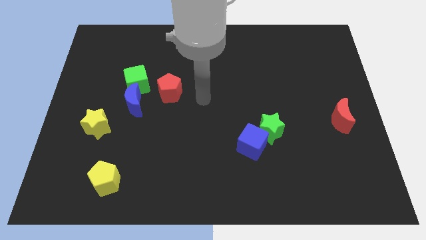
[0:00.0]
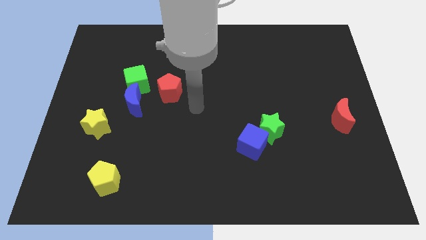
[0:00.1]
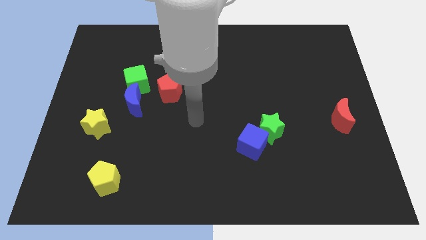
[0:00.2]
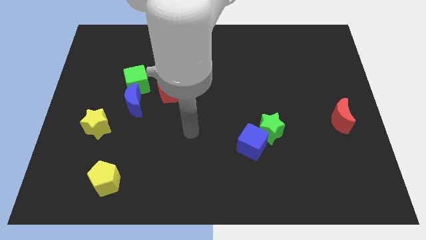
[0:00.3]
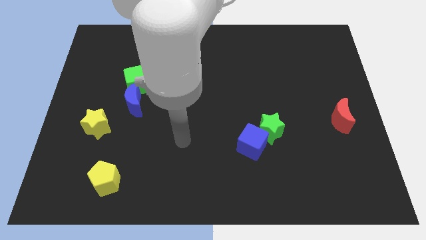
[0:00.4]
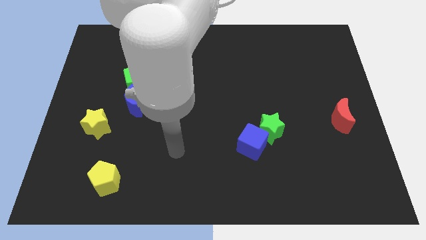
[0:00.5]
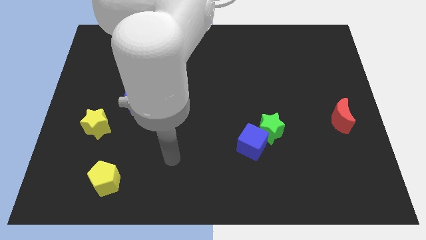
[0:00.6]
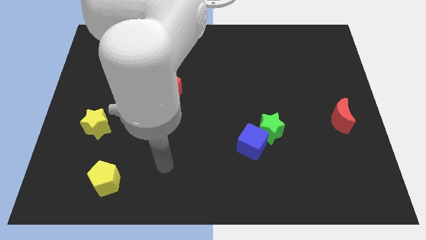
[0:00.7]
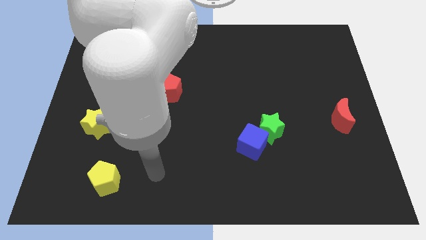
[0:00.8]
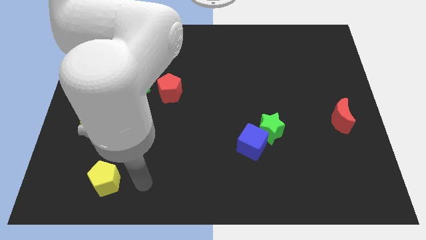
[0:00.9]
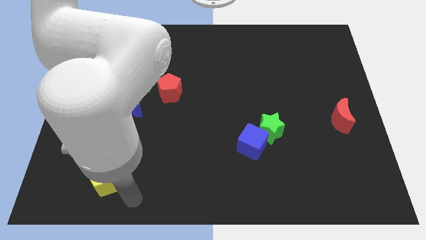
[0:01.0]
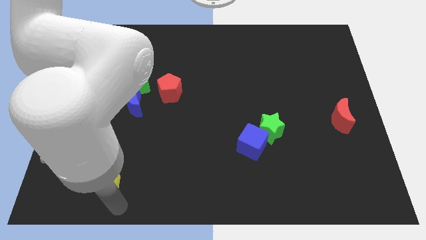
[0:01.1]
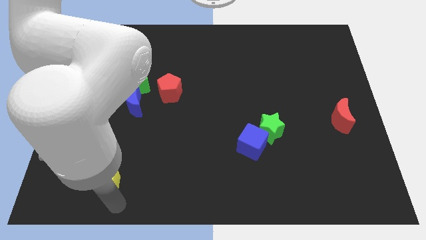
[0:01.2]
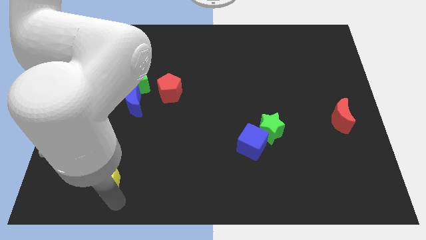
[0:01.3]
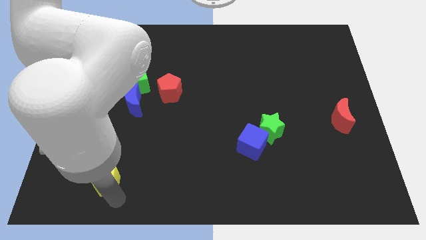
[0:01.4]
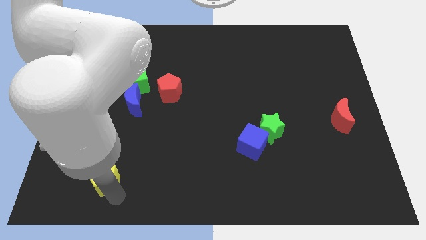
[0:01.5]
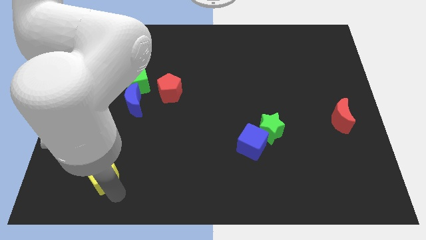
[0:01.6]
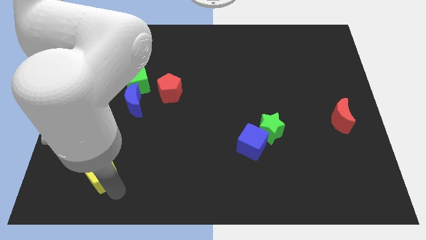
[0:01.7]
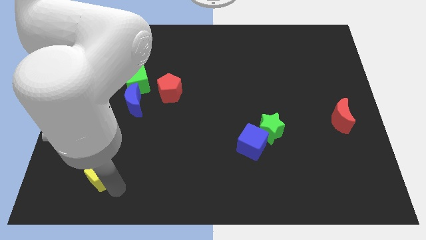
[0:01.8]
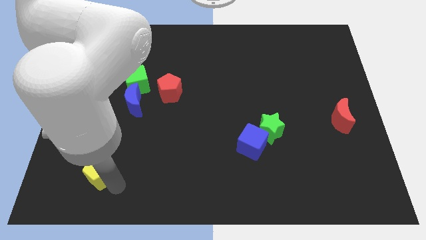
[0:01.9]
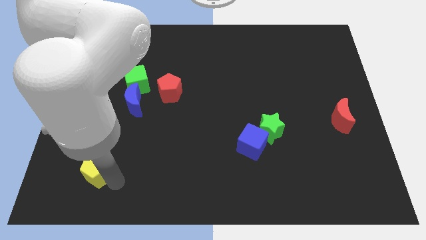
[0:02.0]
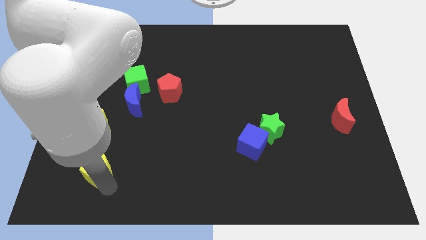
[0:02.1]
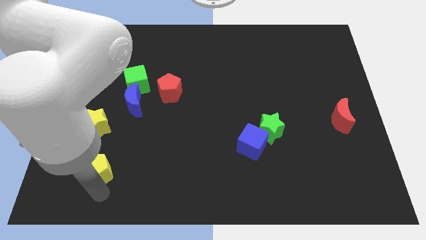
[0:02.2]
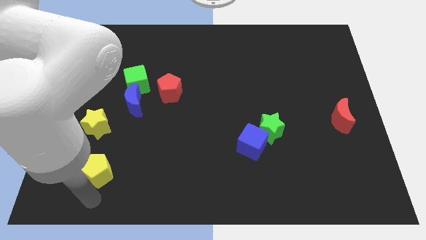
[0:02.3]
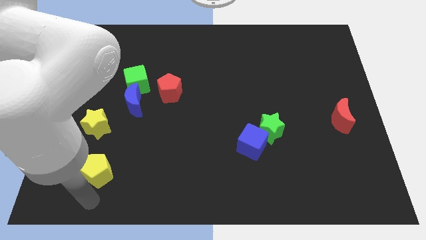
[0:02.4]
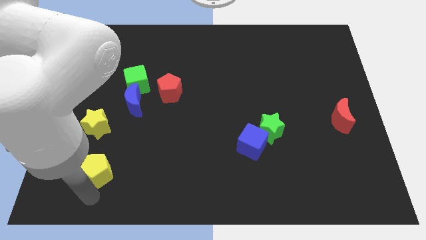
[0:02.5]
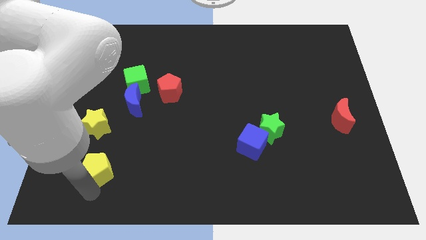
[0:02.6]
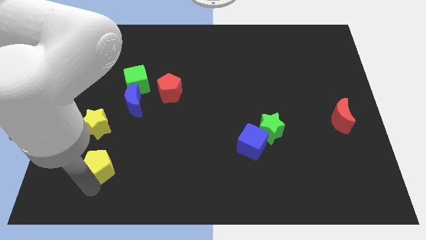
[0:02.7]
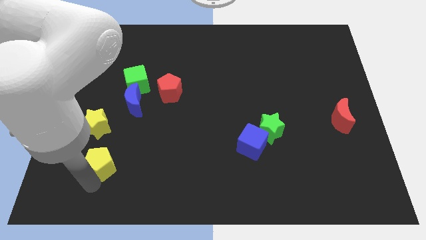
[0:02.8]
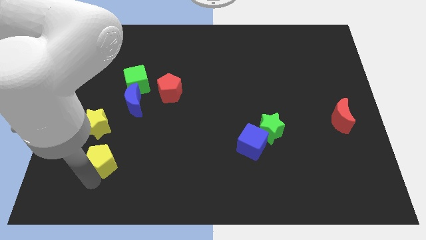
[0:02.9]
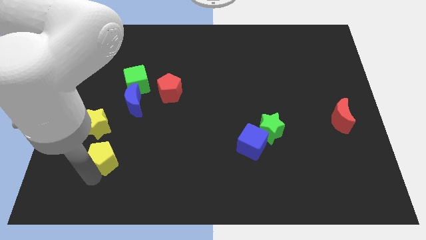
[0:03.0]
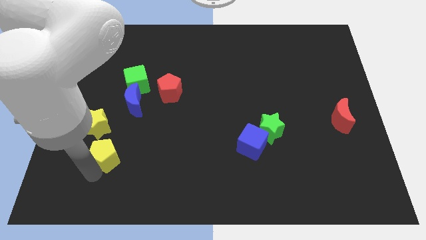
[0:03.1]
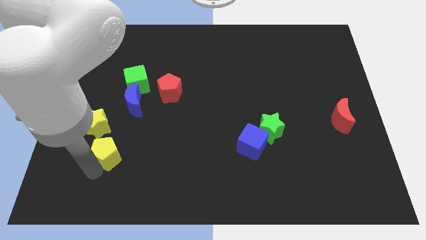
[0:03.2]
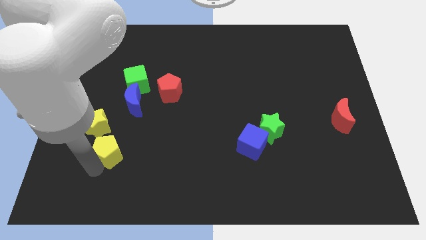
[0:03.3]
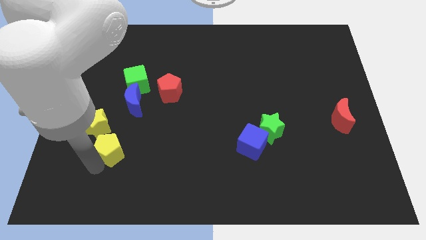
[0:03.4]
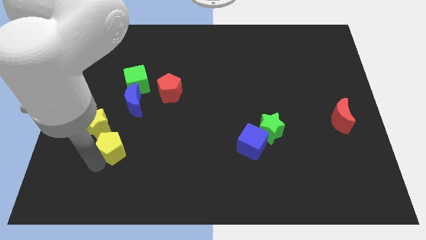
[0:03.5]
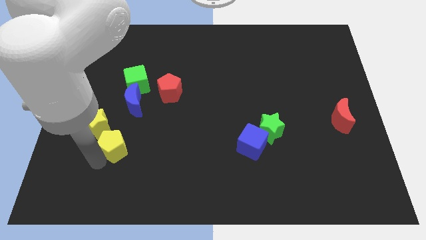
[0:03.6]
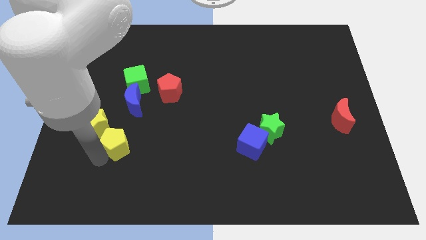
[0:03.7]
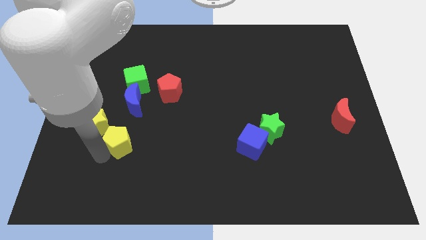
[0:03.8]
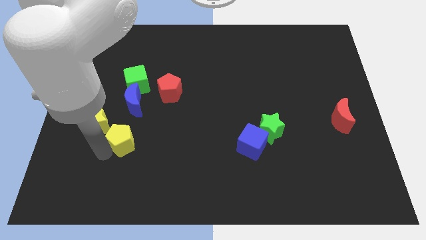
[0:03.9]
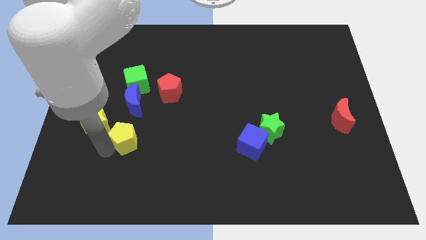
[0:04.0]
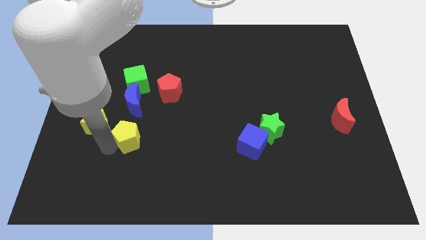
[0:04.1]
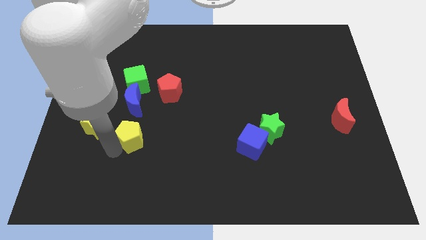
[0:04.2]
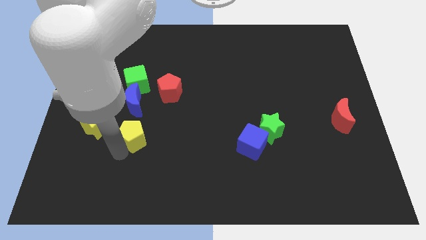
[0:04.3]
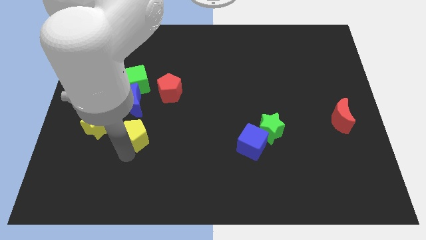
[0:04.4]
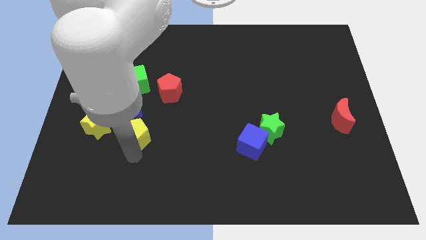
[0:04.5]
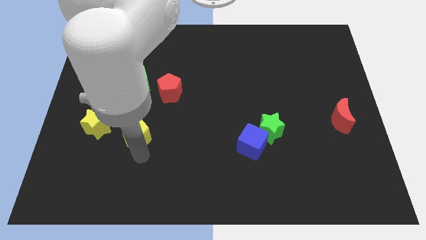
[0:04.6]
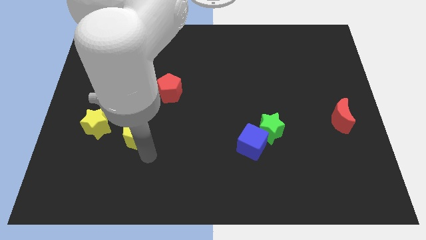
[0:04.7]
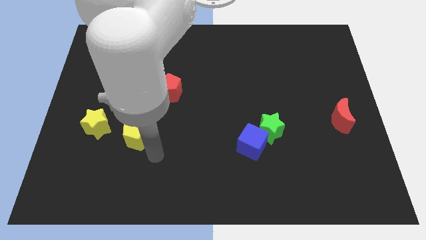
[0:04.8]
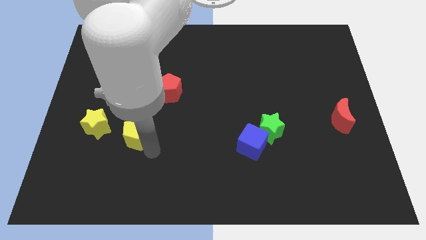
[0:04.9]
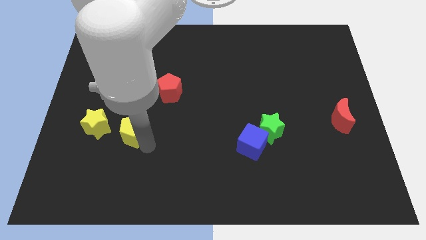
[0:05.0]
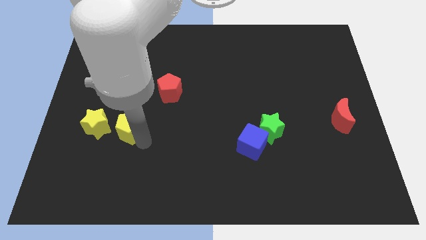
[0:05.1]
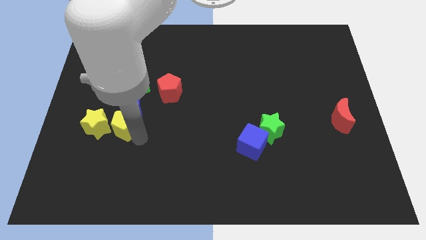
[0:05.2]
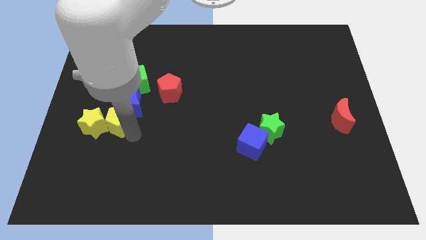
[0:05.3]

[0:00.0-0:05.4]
put the yellow pentagon towards the blue moon

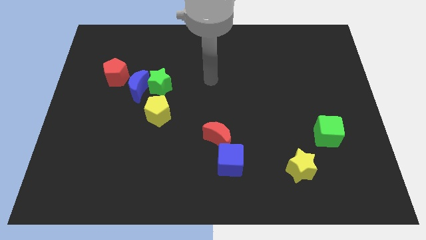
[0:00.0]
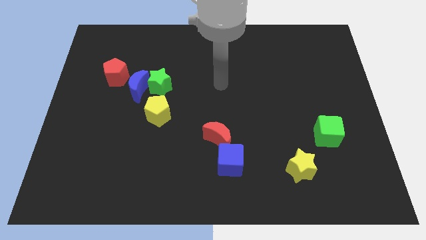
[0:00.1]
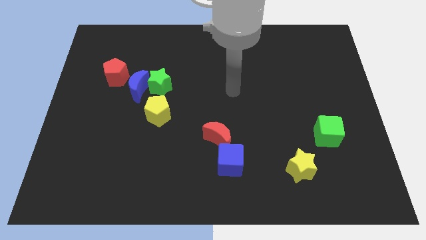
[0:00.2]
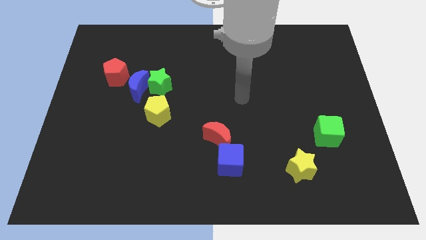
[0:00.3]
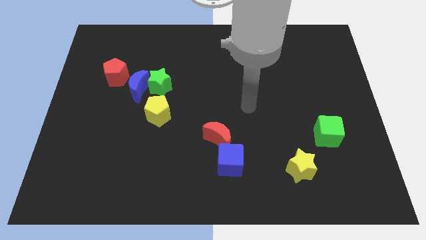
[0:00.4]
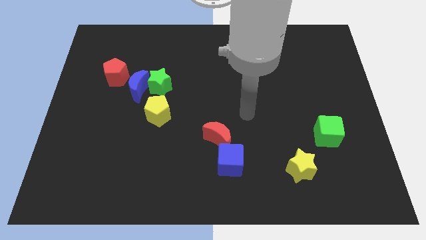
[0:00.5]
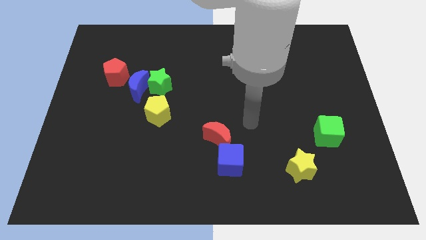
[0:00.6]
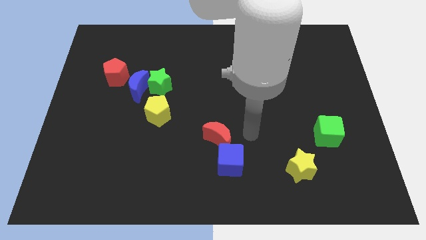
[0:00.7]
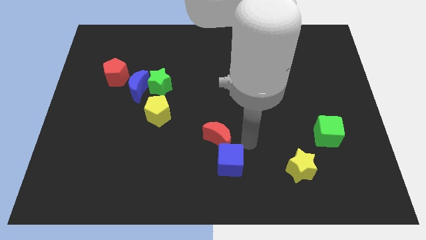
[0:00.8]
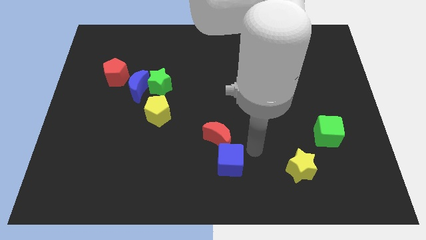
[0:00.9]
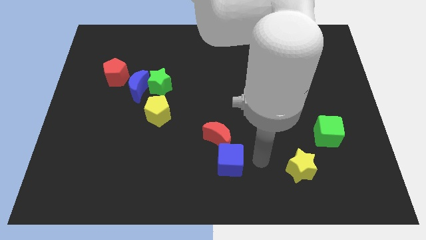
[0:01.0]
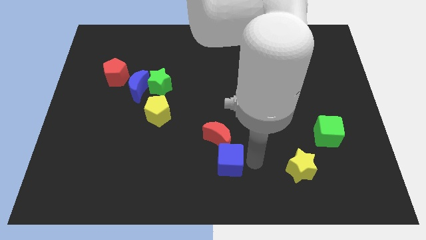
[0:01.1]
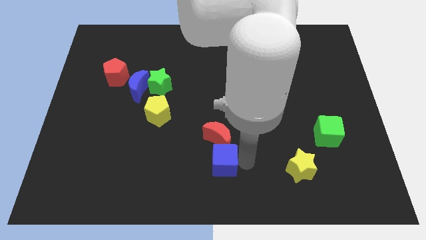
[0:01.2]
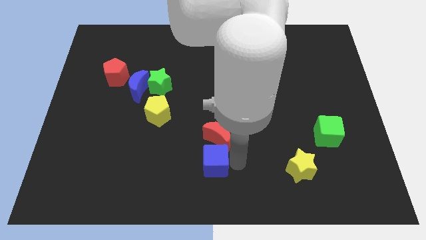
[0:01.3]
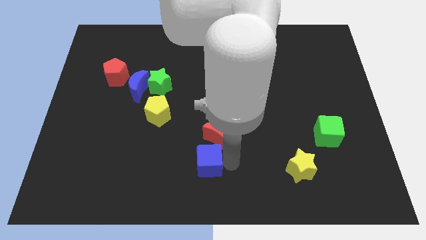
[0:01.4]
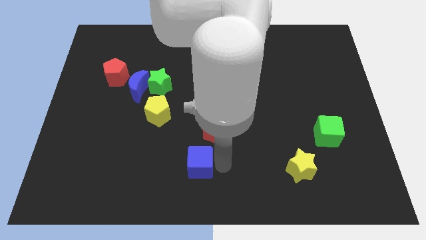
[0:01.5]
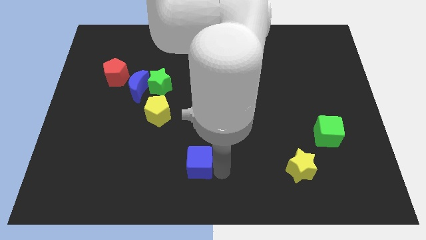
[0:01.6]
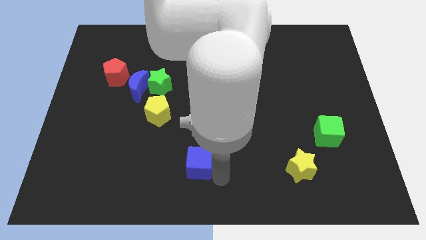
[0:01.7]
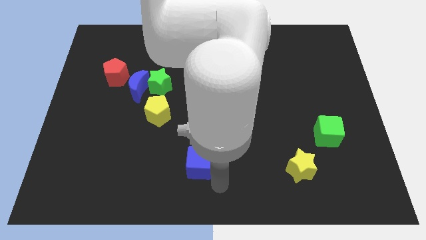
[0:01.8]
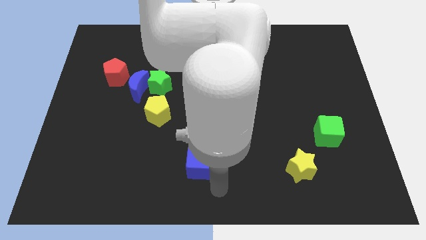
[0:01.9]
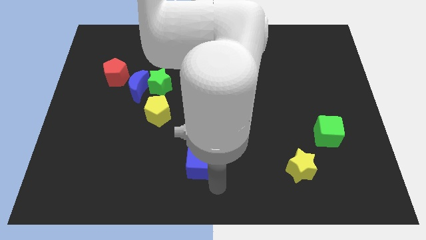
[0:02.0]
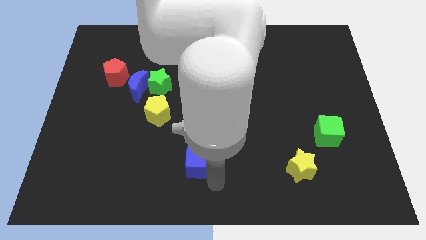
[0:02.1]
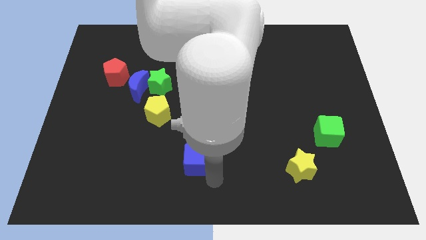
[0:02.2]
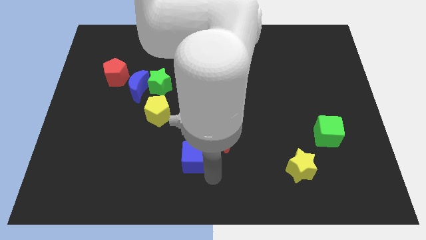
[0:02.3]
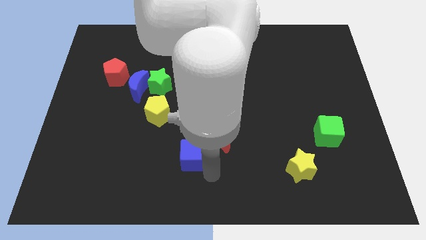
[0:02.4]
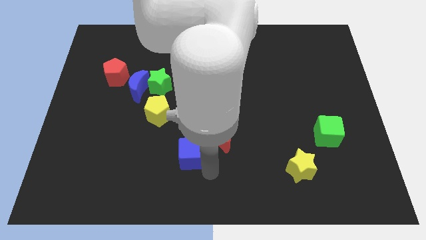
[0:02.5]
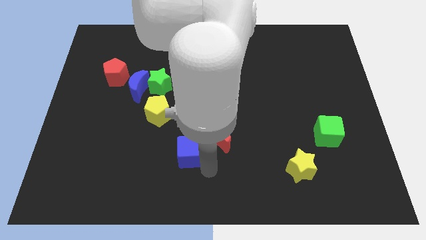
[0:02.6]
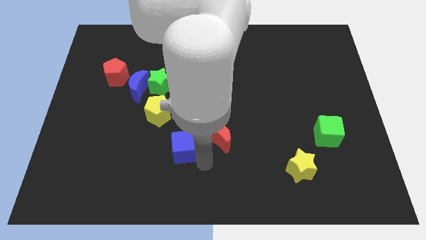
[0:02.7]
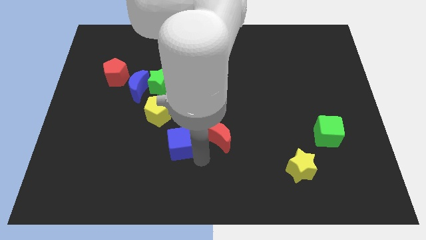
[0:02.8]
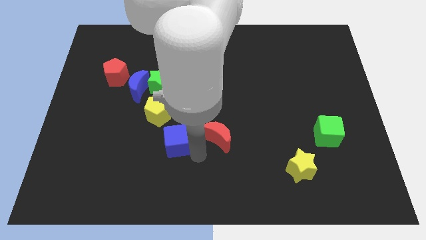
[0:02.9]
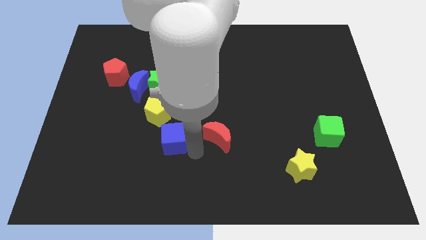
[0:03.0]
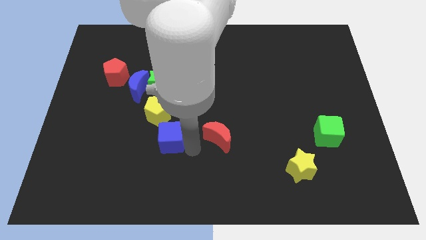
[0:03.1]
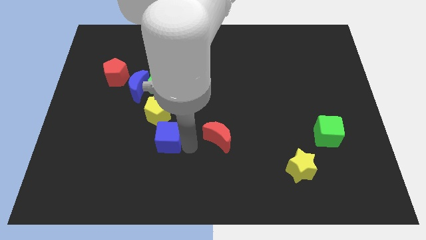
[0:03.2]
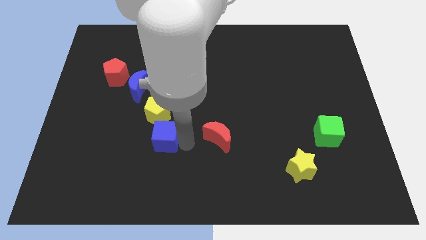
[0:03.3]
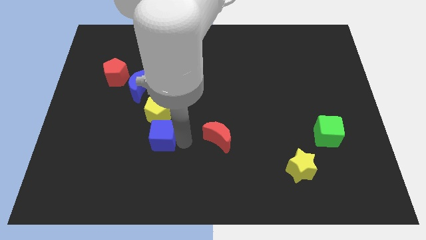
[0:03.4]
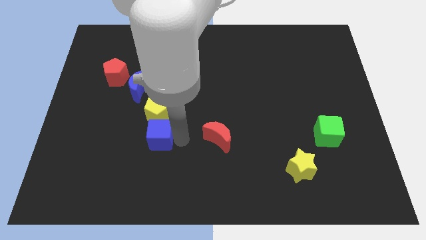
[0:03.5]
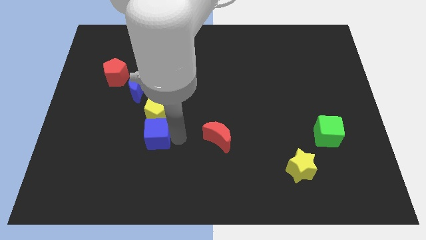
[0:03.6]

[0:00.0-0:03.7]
slide the blue cube towards the yellow pentagon
